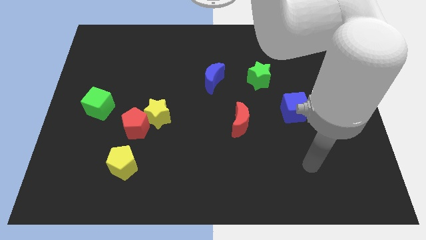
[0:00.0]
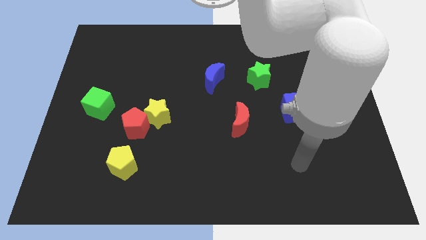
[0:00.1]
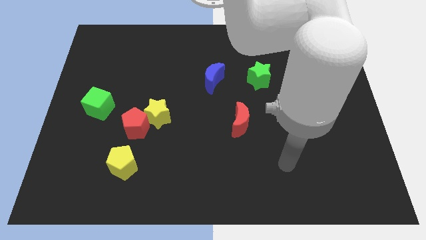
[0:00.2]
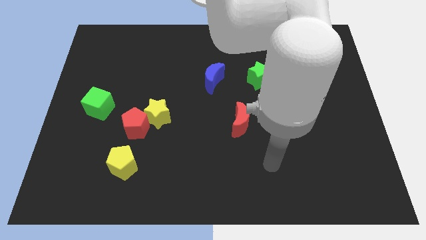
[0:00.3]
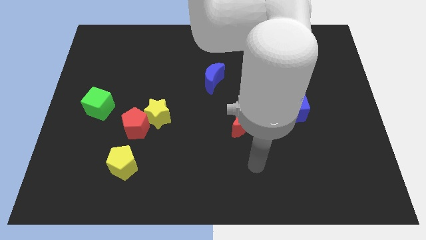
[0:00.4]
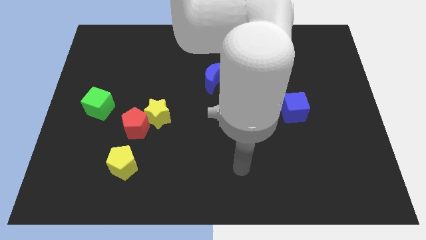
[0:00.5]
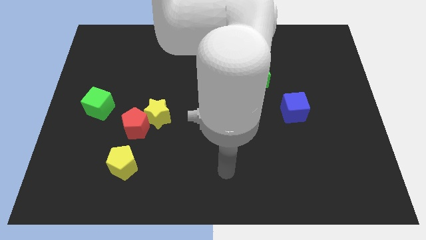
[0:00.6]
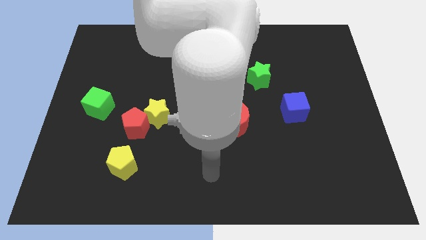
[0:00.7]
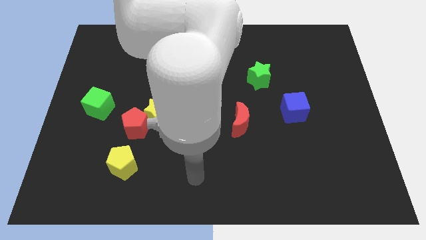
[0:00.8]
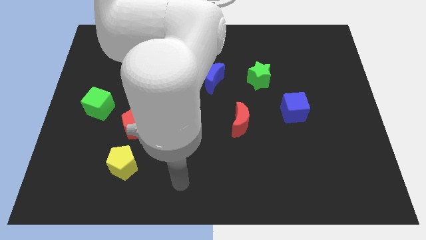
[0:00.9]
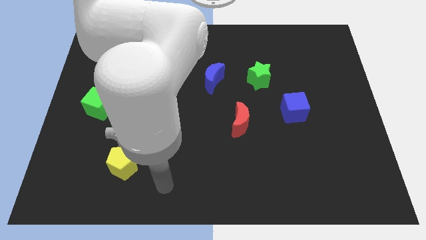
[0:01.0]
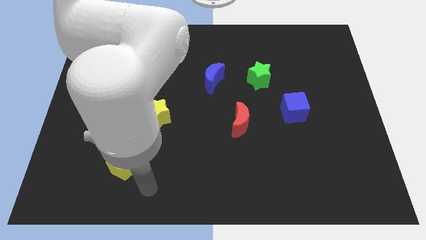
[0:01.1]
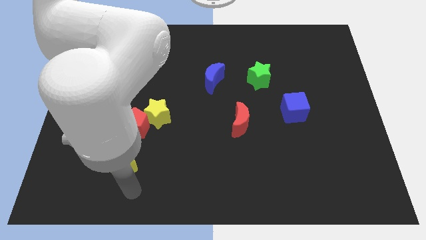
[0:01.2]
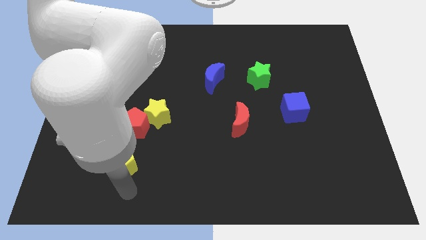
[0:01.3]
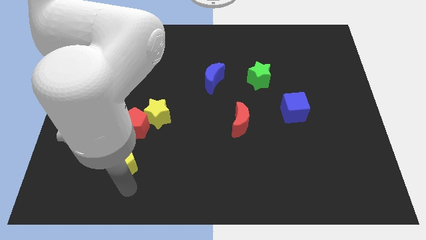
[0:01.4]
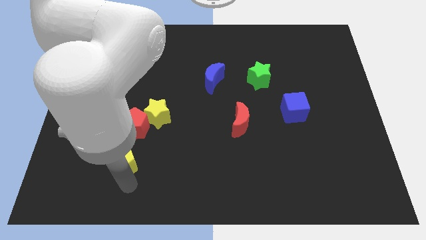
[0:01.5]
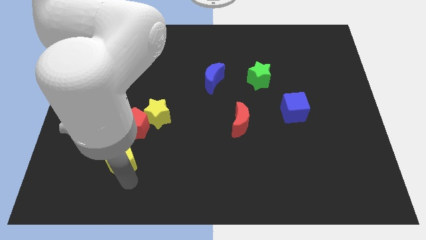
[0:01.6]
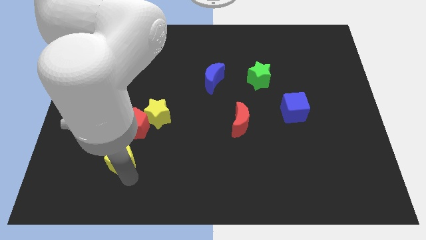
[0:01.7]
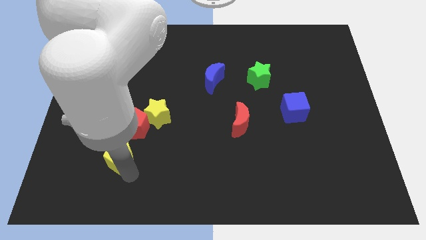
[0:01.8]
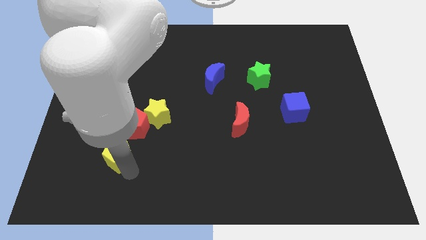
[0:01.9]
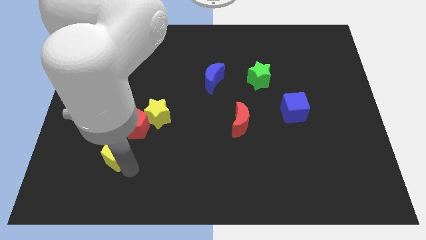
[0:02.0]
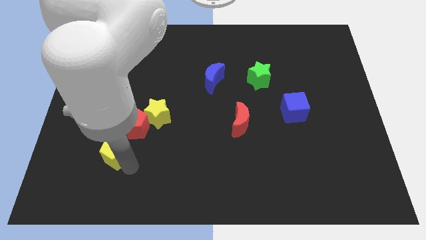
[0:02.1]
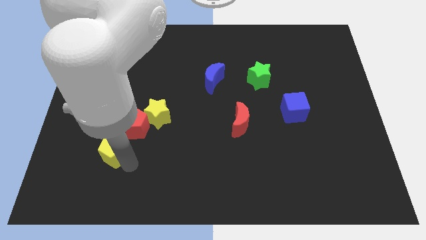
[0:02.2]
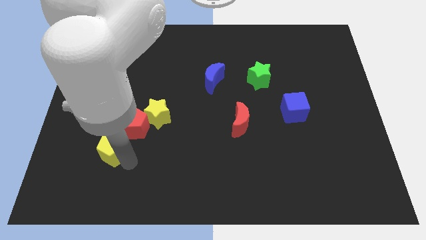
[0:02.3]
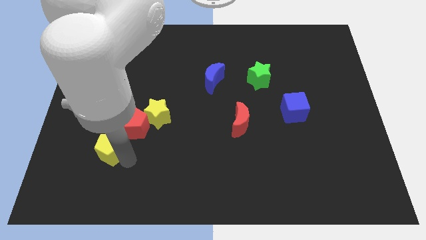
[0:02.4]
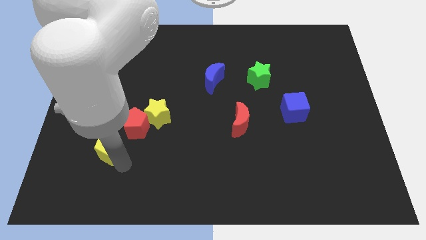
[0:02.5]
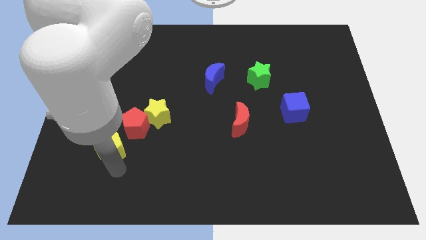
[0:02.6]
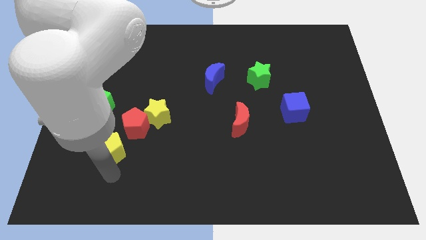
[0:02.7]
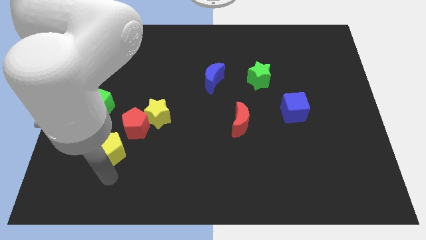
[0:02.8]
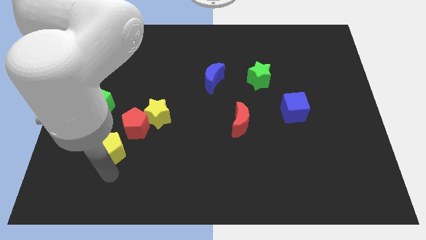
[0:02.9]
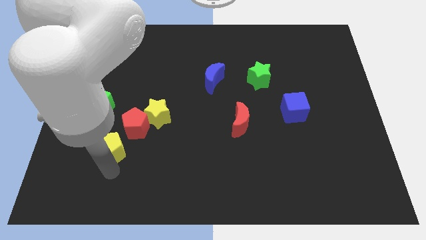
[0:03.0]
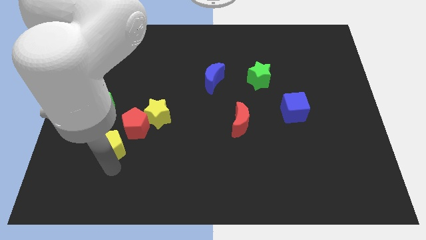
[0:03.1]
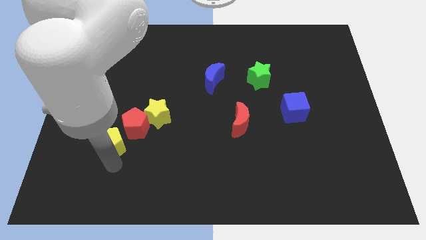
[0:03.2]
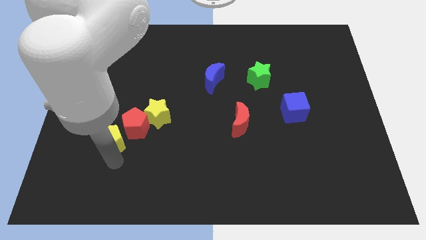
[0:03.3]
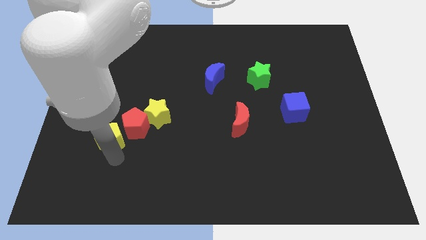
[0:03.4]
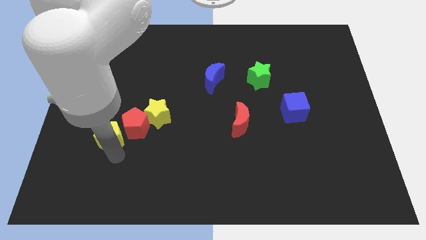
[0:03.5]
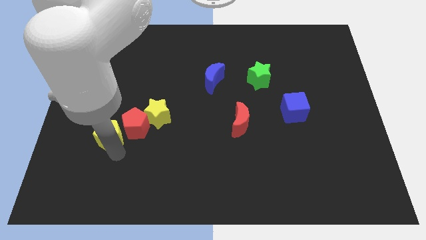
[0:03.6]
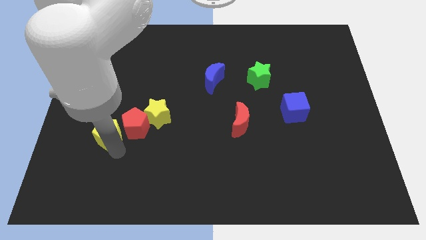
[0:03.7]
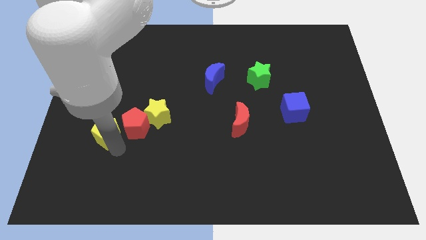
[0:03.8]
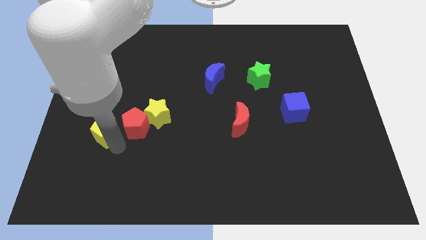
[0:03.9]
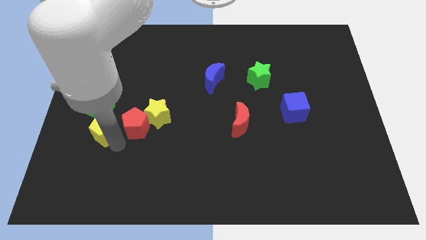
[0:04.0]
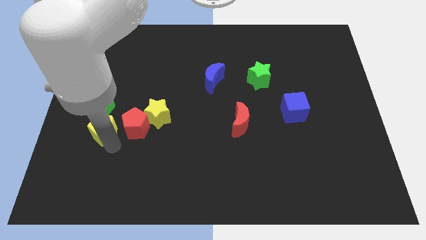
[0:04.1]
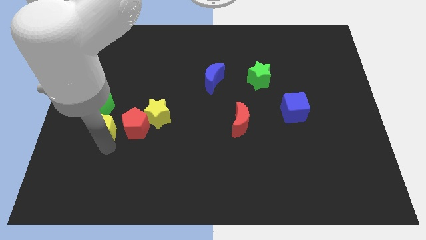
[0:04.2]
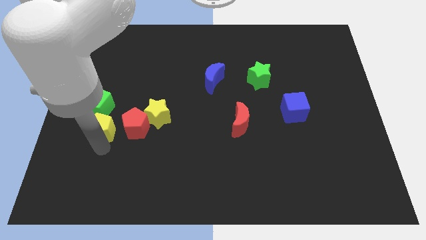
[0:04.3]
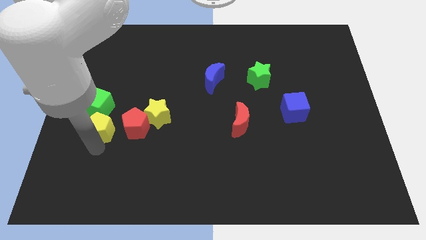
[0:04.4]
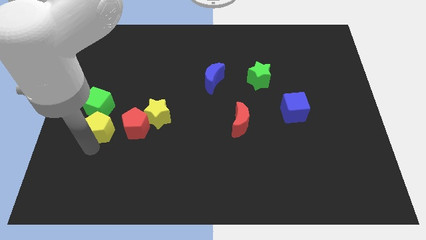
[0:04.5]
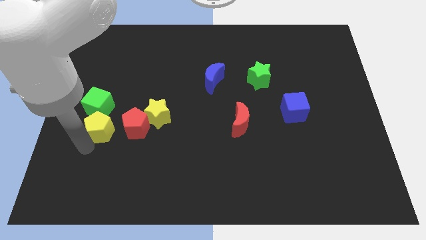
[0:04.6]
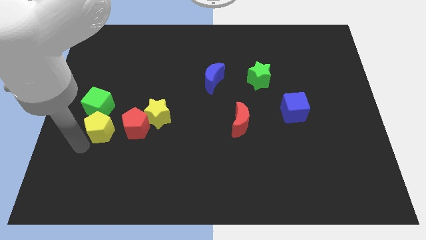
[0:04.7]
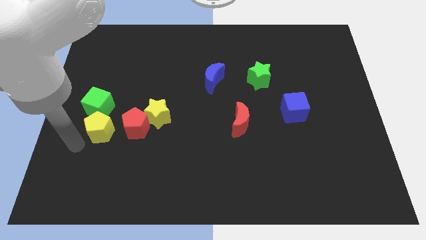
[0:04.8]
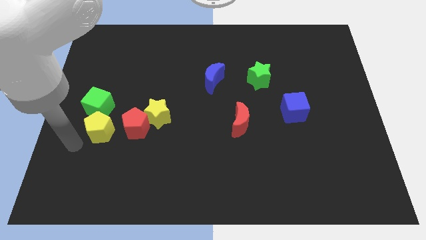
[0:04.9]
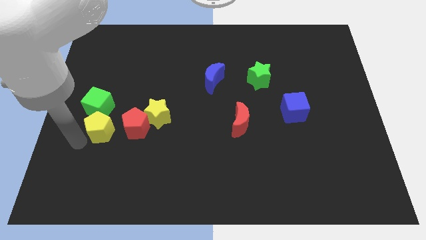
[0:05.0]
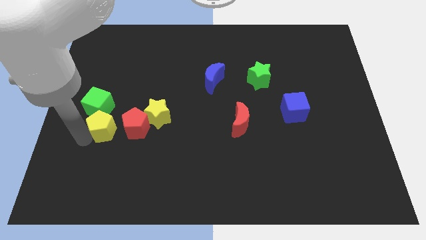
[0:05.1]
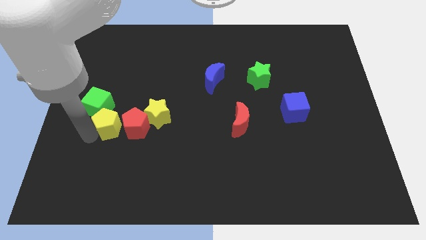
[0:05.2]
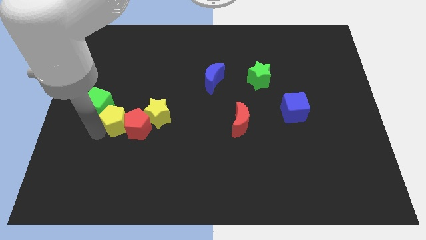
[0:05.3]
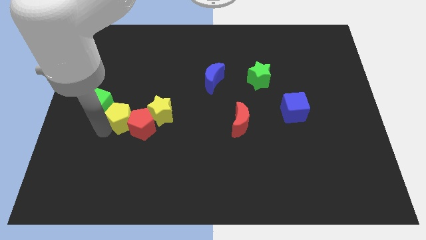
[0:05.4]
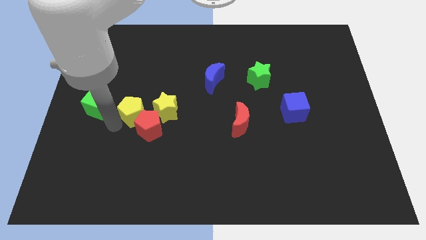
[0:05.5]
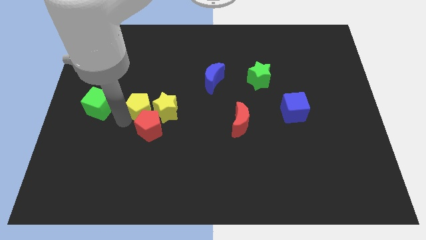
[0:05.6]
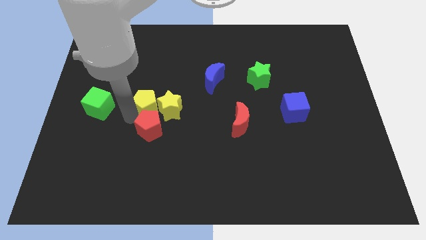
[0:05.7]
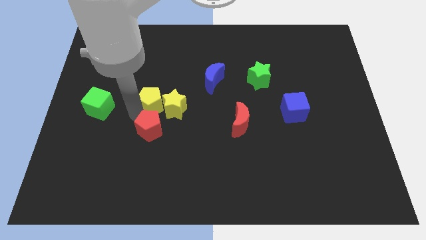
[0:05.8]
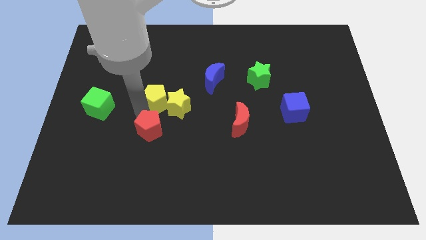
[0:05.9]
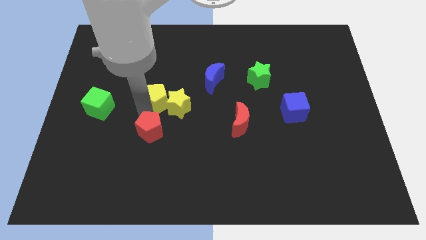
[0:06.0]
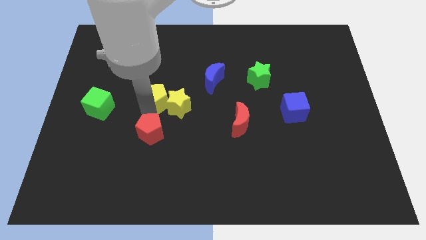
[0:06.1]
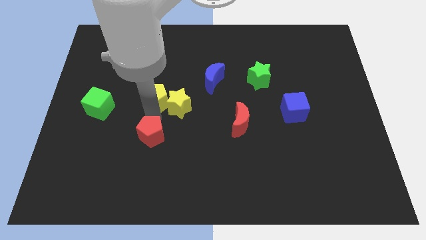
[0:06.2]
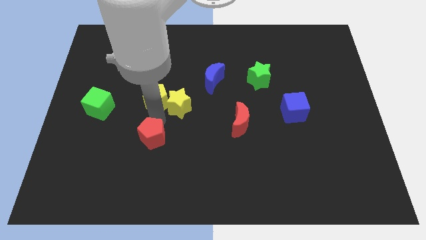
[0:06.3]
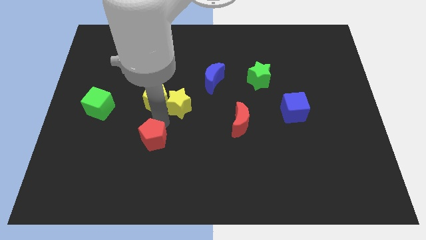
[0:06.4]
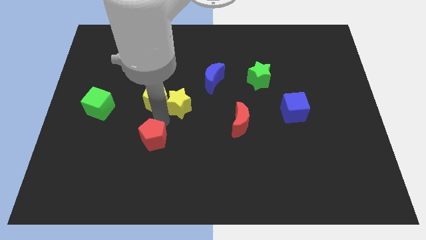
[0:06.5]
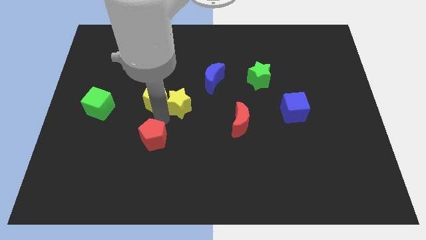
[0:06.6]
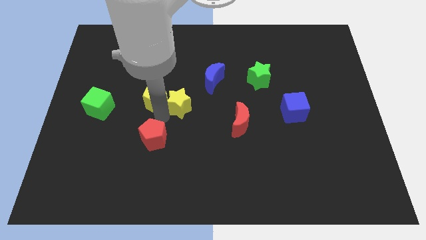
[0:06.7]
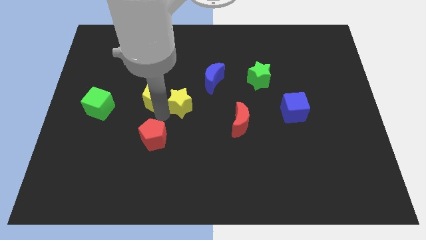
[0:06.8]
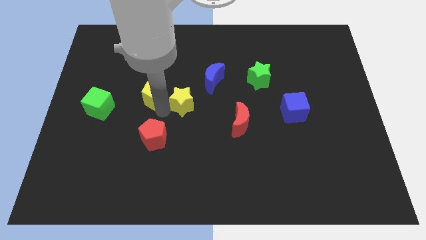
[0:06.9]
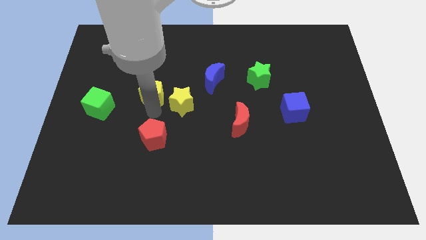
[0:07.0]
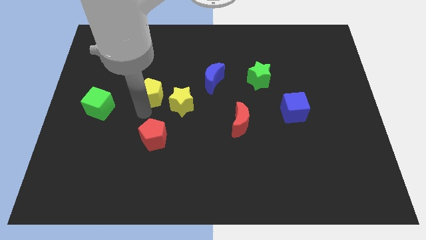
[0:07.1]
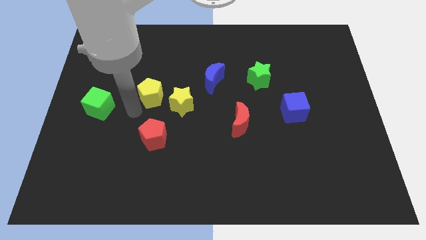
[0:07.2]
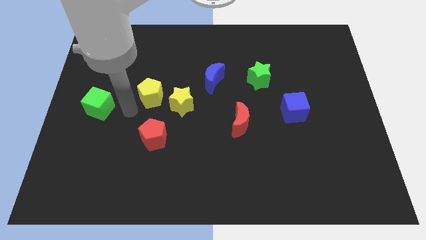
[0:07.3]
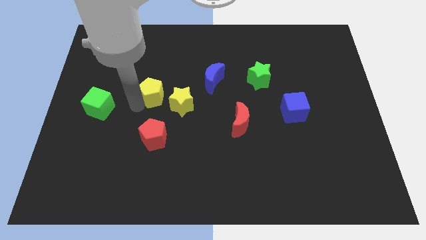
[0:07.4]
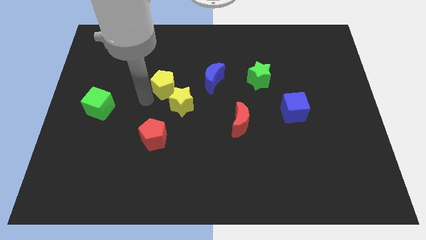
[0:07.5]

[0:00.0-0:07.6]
push the yellow pentagon to the top of the yellow star

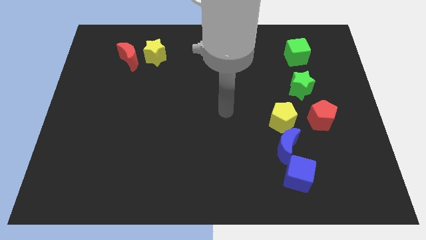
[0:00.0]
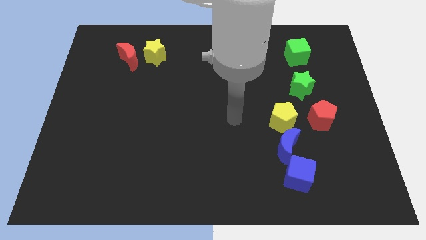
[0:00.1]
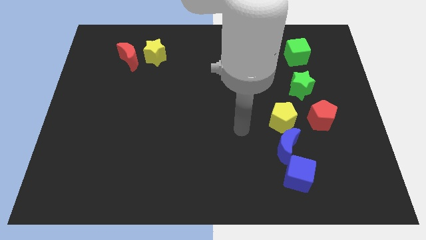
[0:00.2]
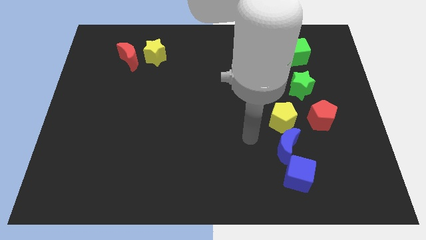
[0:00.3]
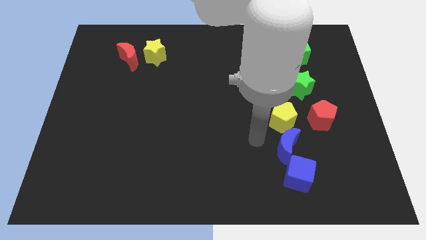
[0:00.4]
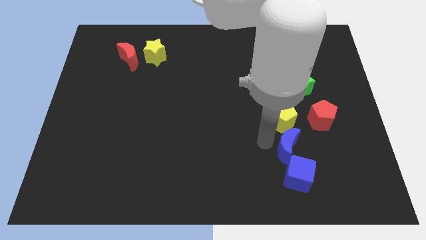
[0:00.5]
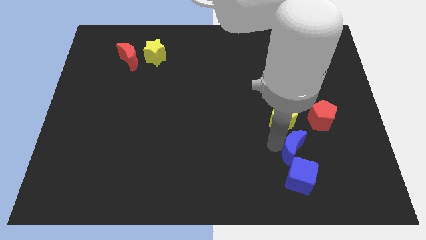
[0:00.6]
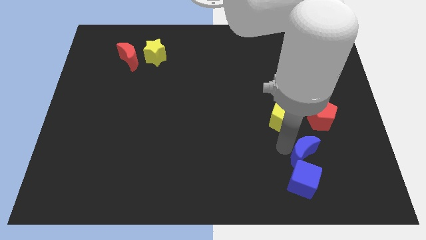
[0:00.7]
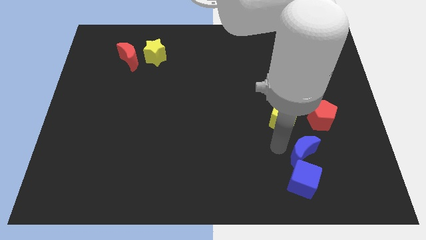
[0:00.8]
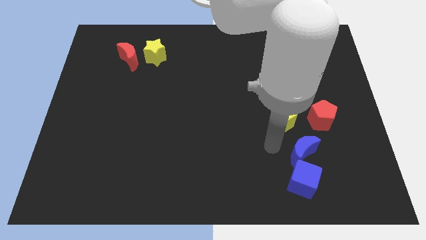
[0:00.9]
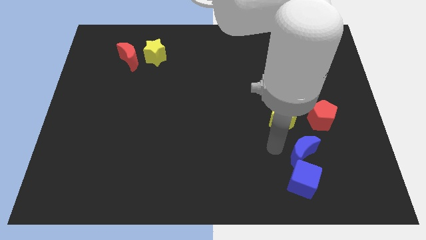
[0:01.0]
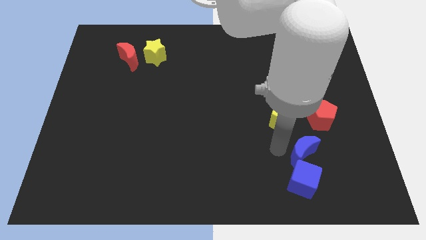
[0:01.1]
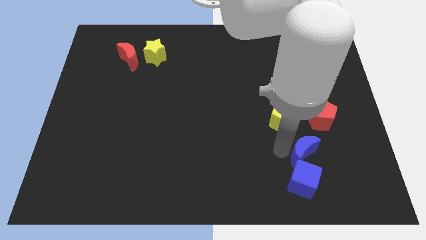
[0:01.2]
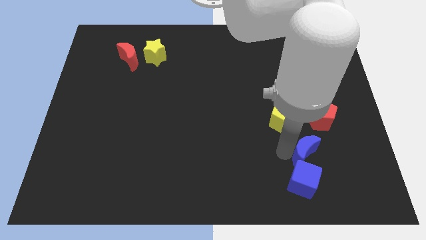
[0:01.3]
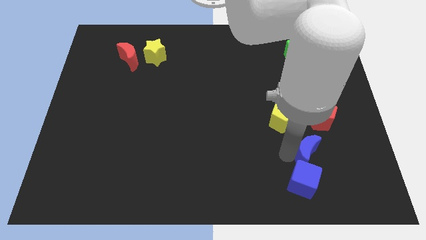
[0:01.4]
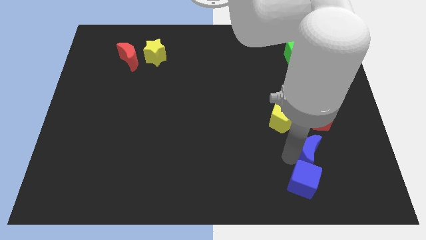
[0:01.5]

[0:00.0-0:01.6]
put the blue moon below the red pentagon
